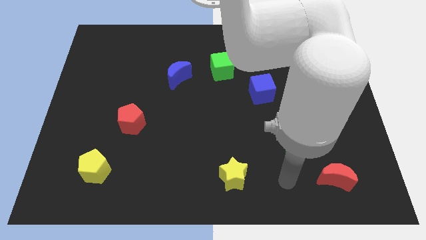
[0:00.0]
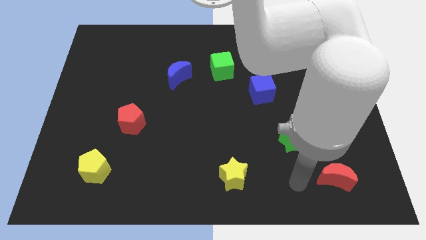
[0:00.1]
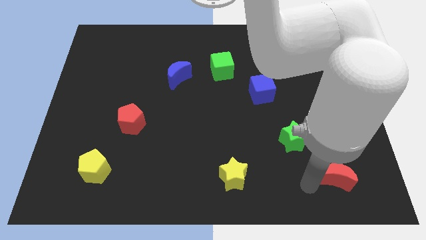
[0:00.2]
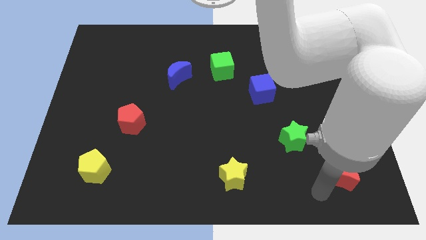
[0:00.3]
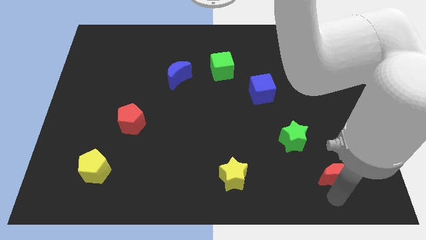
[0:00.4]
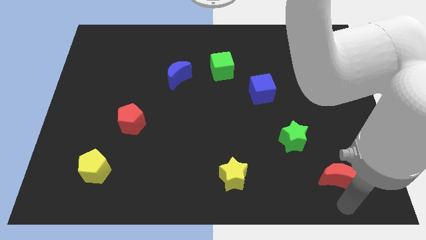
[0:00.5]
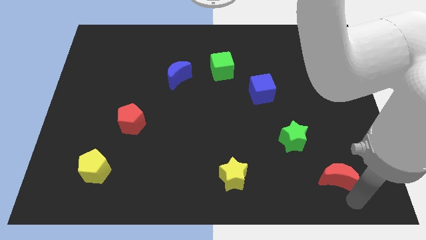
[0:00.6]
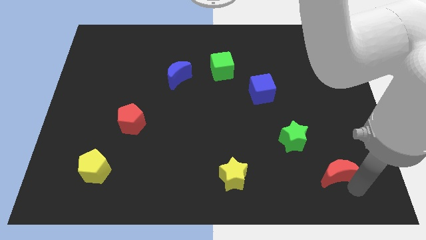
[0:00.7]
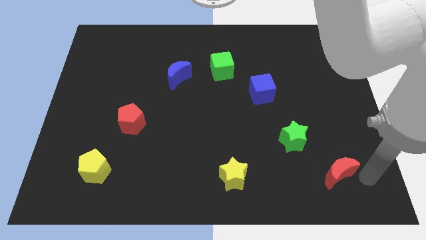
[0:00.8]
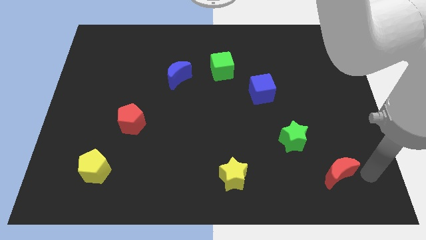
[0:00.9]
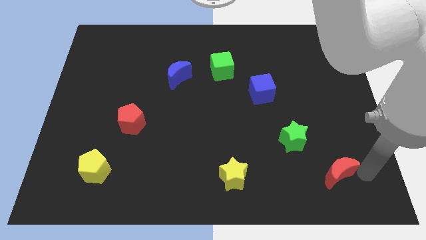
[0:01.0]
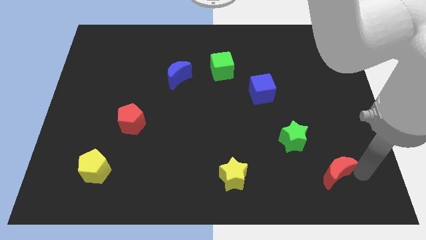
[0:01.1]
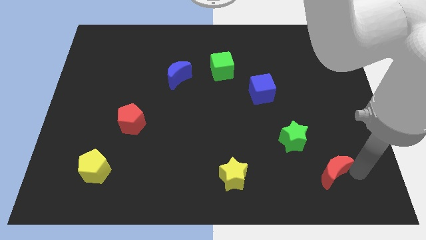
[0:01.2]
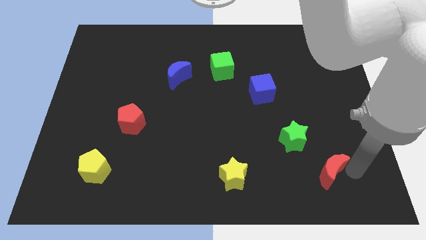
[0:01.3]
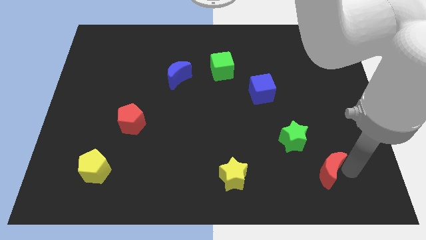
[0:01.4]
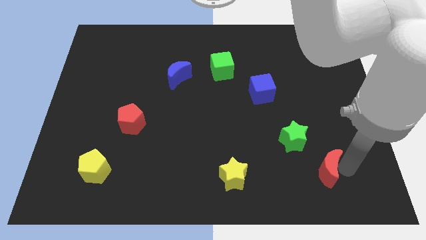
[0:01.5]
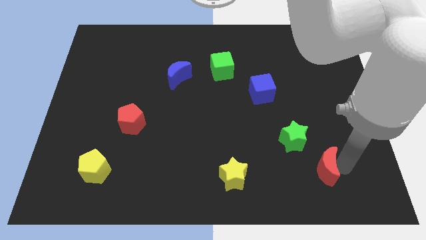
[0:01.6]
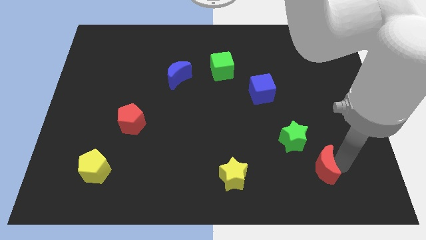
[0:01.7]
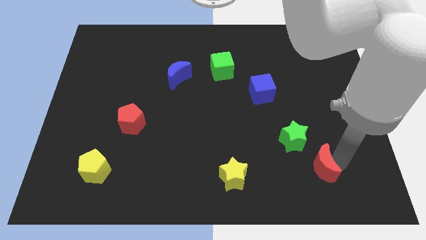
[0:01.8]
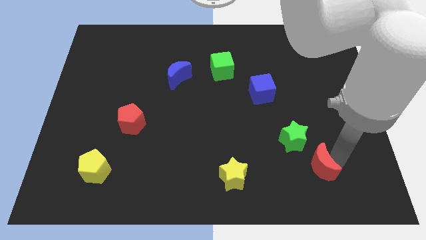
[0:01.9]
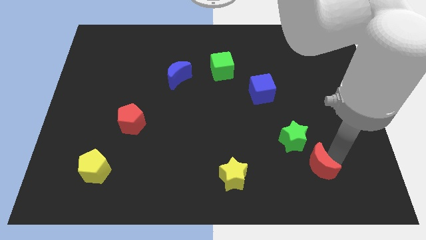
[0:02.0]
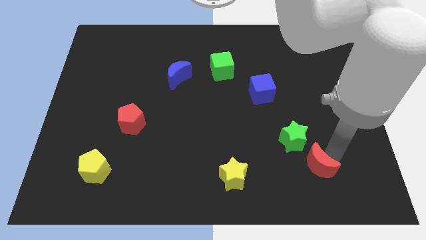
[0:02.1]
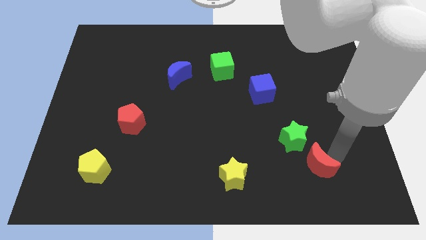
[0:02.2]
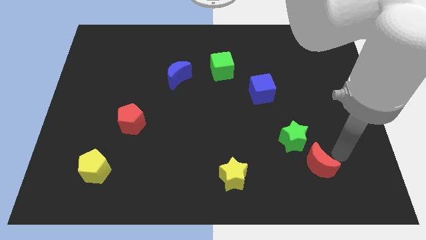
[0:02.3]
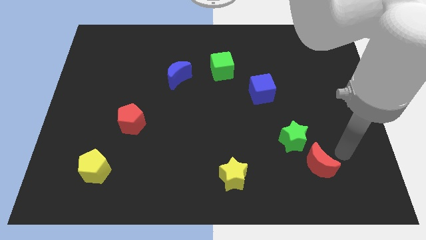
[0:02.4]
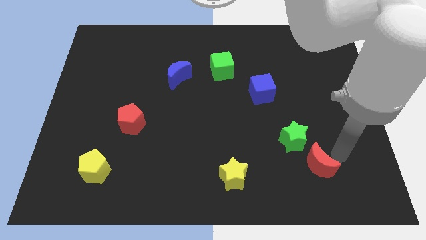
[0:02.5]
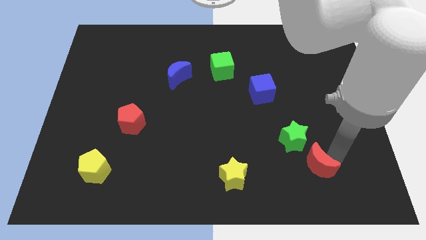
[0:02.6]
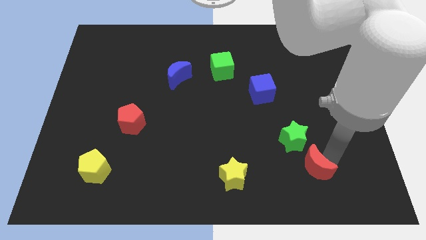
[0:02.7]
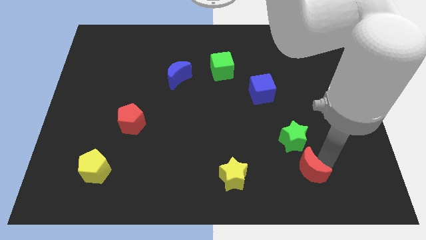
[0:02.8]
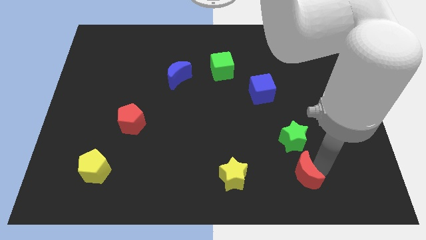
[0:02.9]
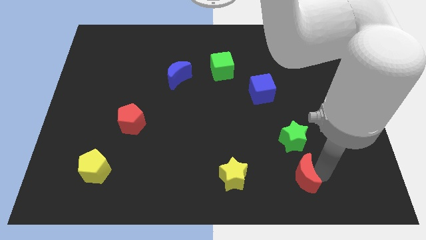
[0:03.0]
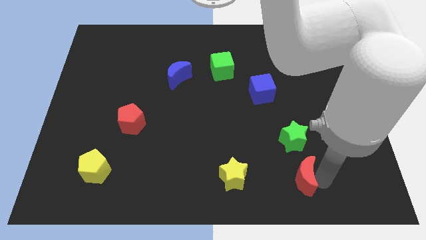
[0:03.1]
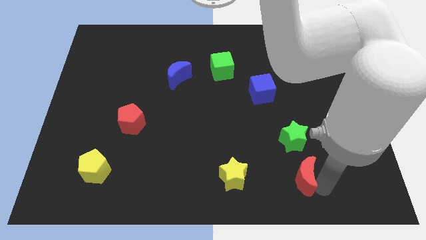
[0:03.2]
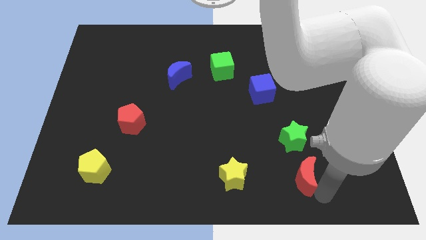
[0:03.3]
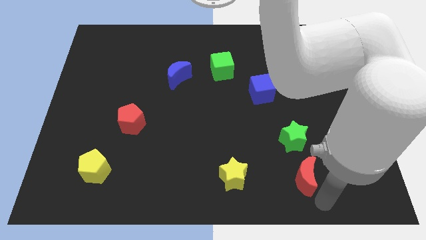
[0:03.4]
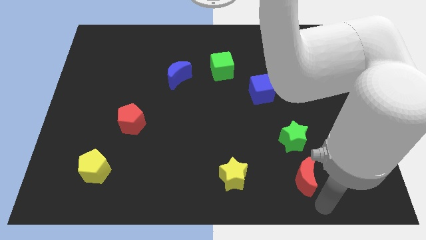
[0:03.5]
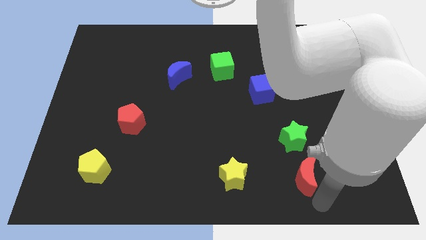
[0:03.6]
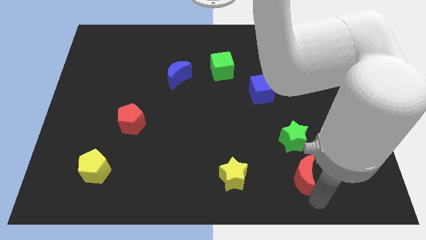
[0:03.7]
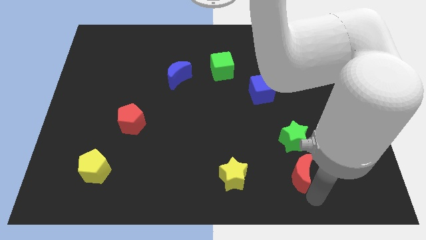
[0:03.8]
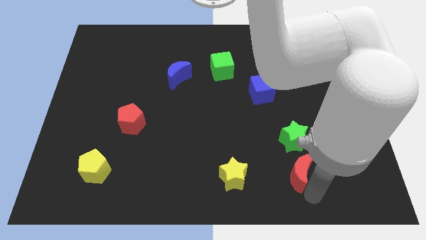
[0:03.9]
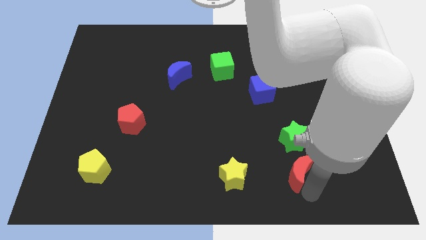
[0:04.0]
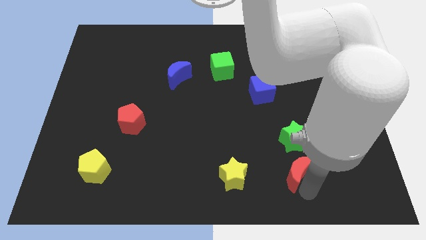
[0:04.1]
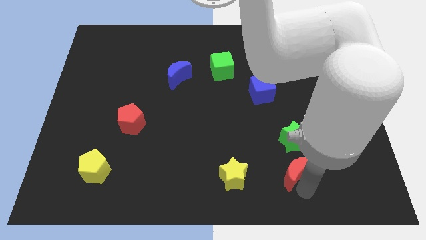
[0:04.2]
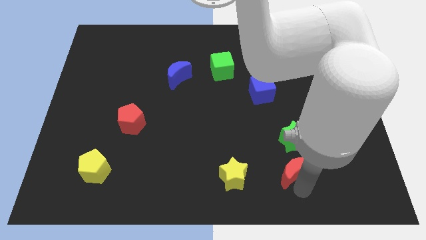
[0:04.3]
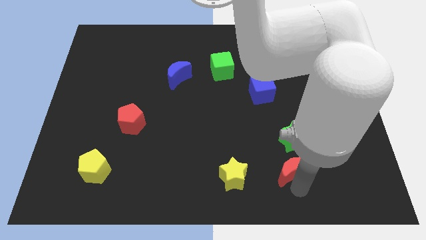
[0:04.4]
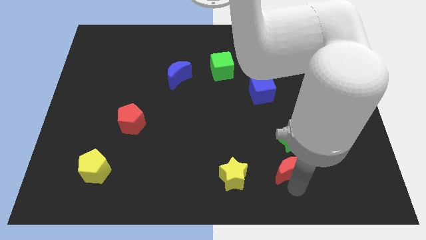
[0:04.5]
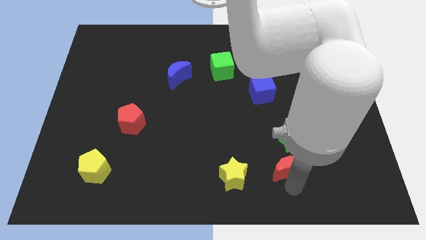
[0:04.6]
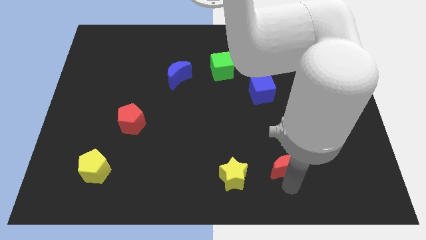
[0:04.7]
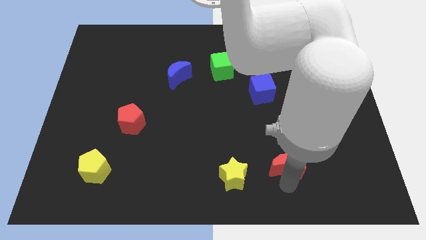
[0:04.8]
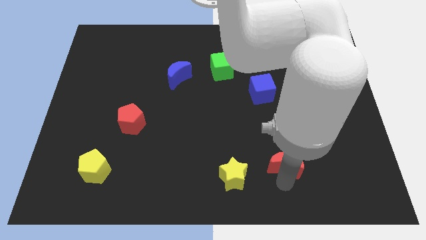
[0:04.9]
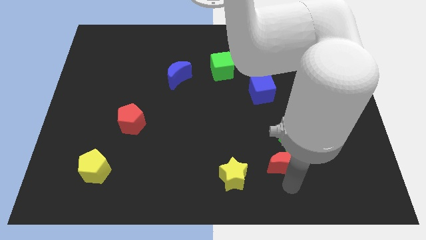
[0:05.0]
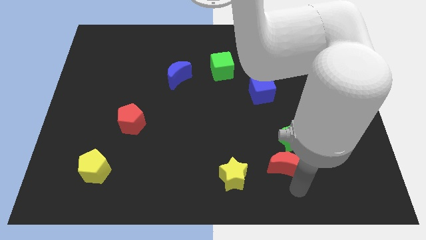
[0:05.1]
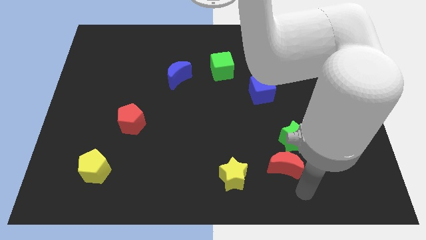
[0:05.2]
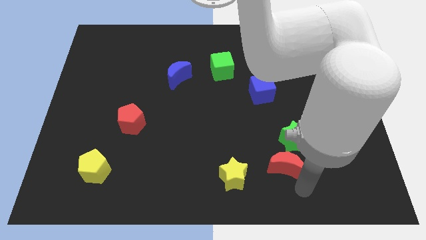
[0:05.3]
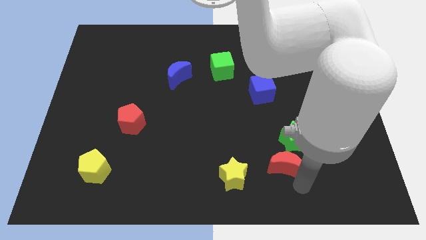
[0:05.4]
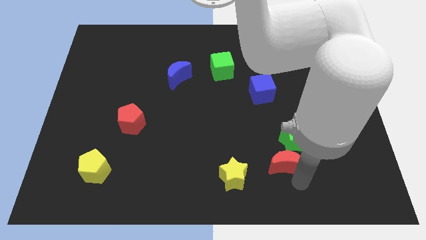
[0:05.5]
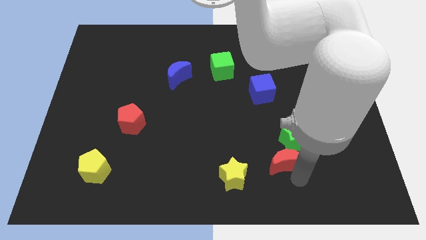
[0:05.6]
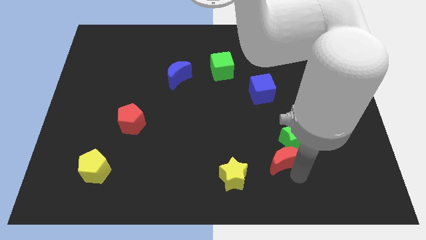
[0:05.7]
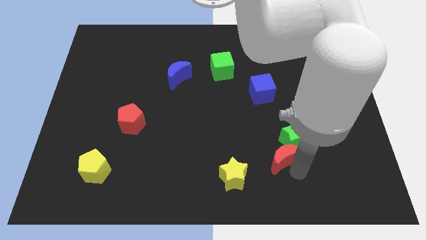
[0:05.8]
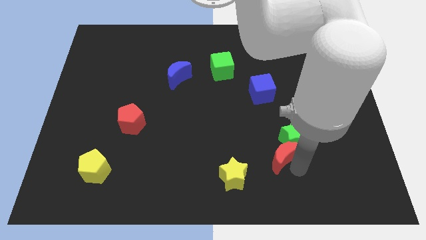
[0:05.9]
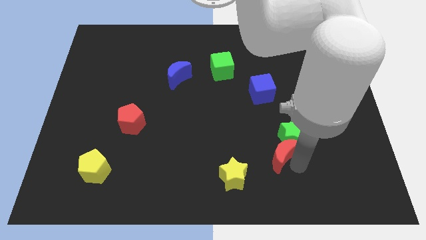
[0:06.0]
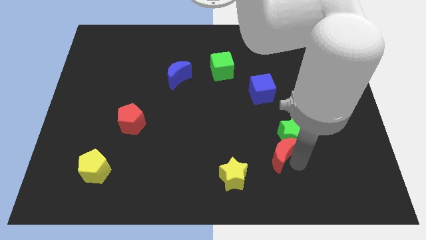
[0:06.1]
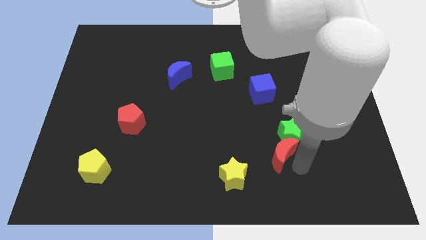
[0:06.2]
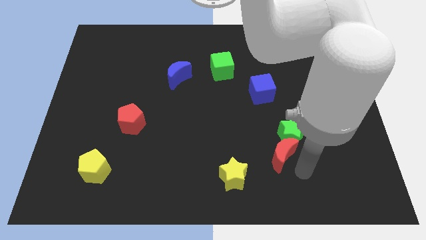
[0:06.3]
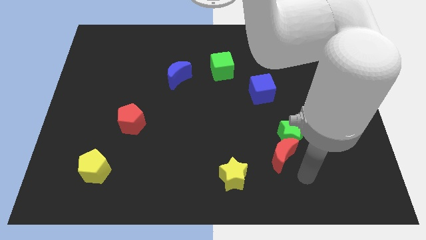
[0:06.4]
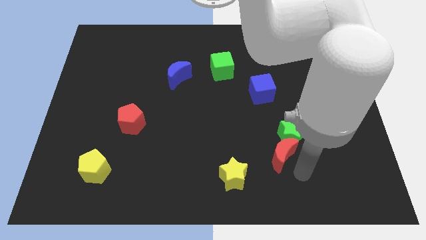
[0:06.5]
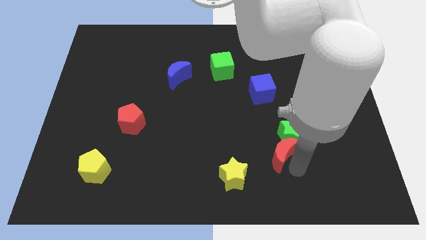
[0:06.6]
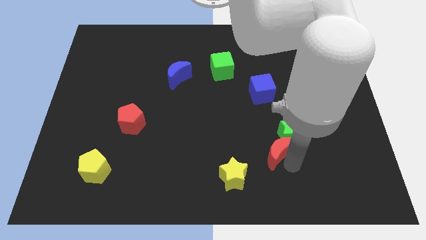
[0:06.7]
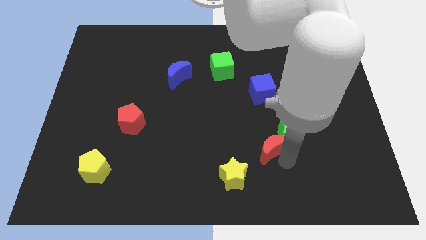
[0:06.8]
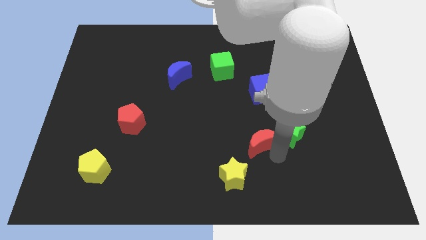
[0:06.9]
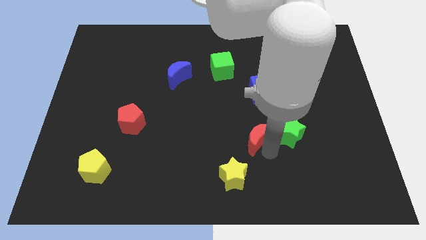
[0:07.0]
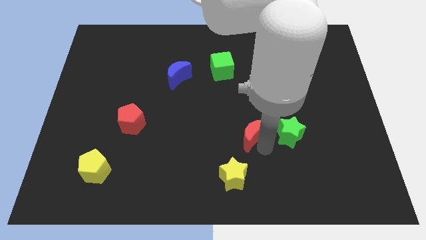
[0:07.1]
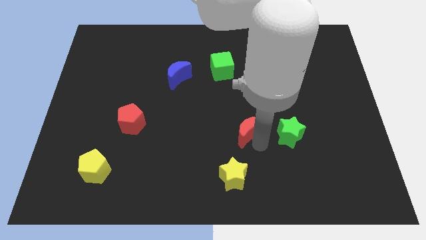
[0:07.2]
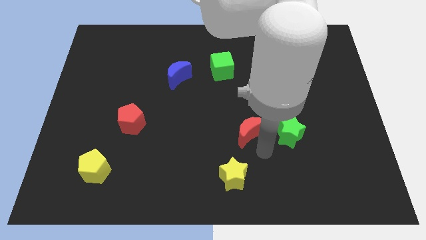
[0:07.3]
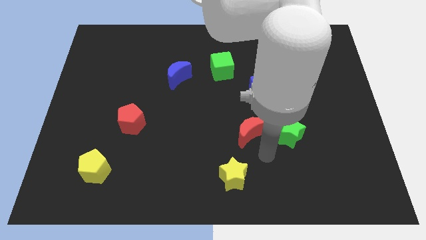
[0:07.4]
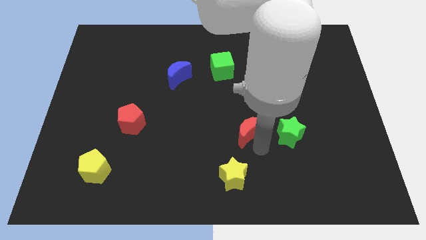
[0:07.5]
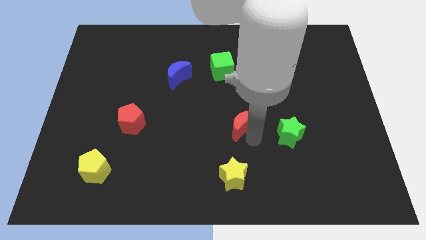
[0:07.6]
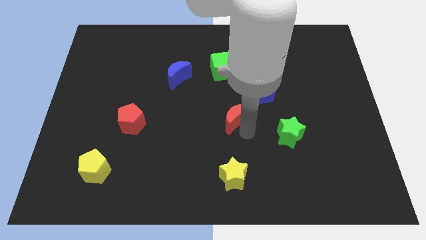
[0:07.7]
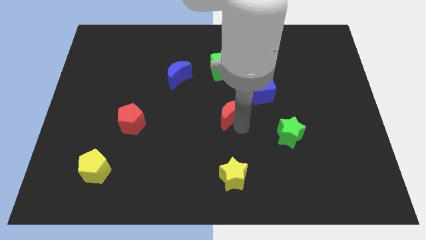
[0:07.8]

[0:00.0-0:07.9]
push the red moon to the bottom of the green cube
